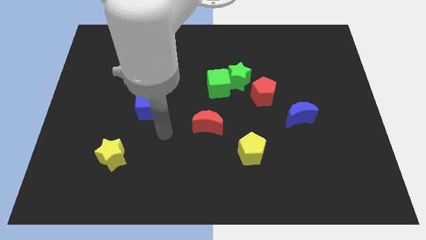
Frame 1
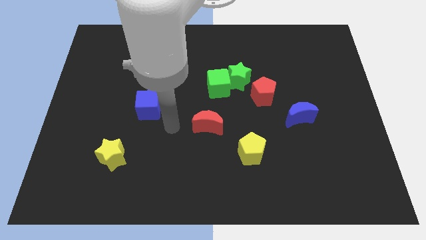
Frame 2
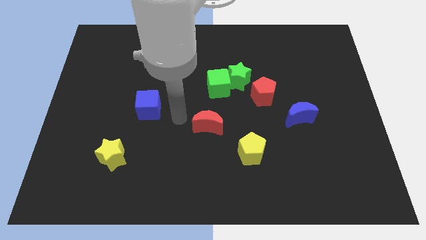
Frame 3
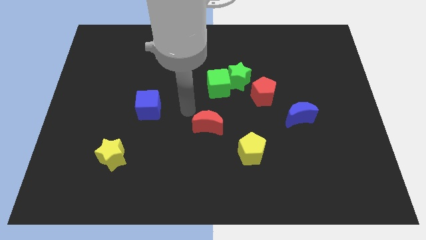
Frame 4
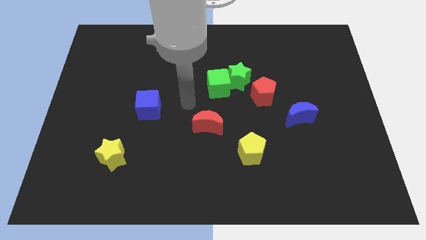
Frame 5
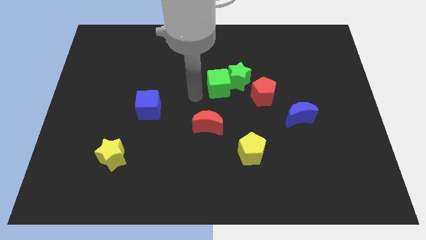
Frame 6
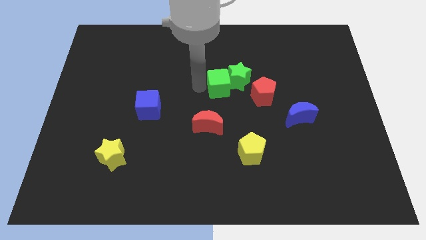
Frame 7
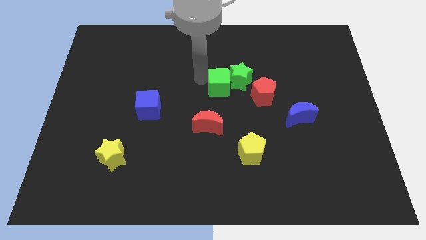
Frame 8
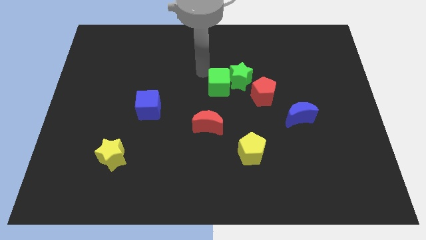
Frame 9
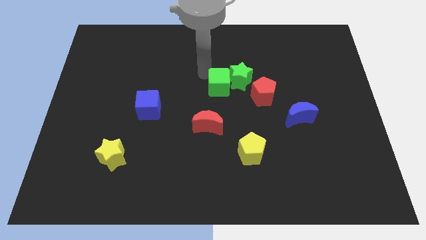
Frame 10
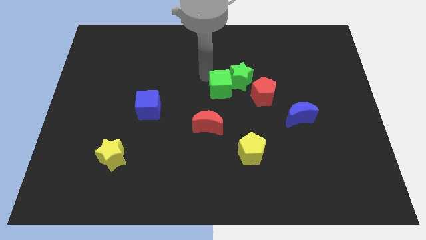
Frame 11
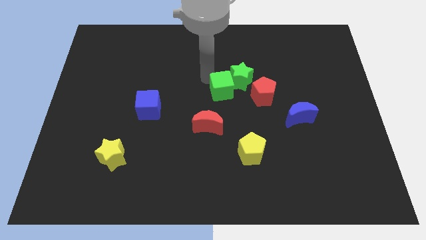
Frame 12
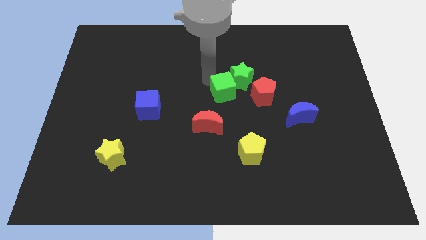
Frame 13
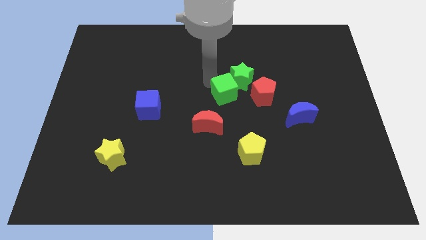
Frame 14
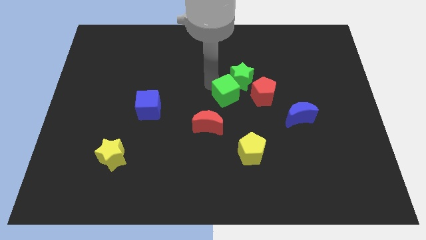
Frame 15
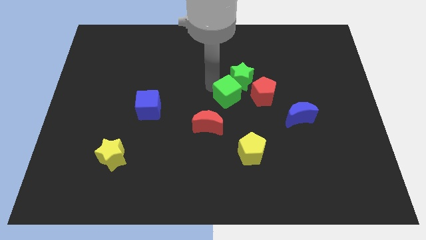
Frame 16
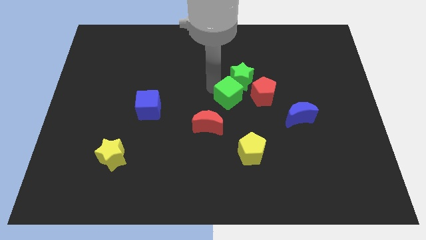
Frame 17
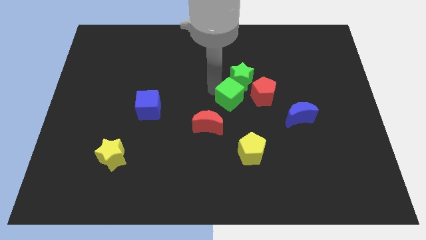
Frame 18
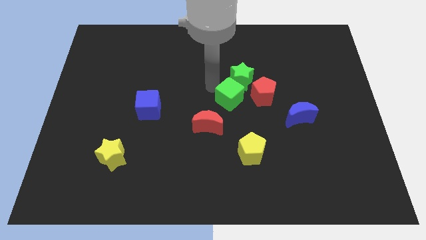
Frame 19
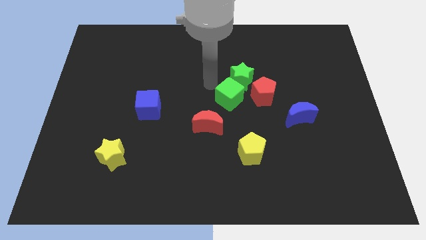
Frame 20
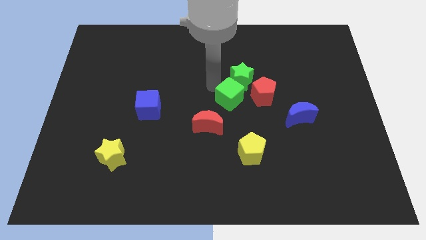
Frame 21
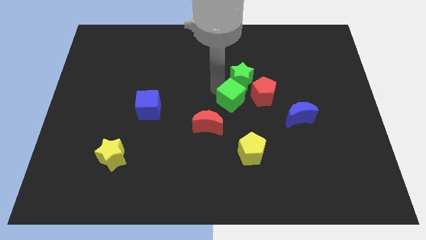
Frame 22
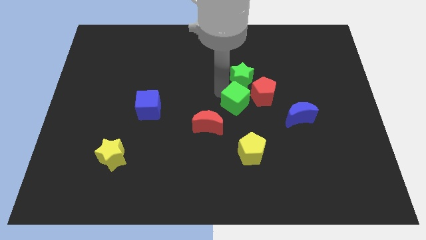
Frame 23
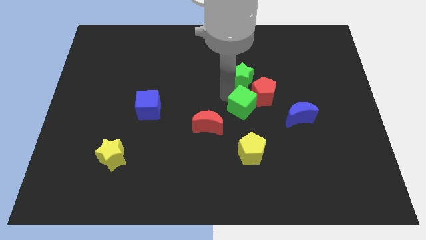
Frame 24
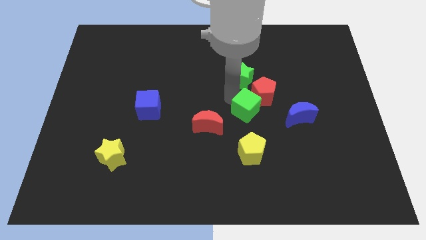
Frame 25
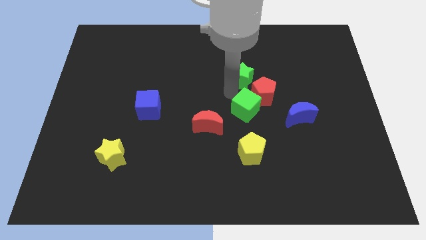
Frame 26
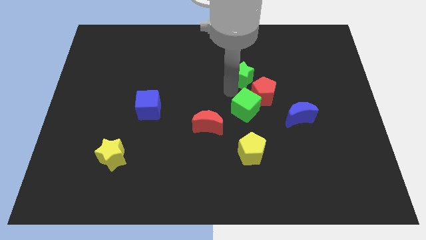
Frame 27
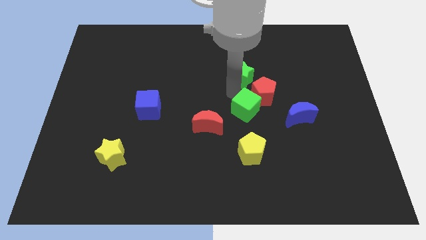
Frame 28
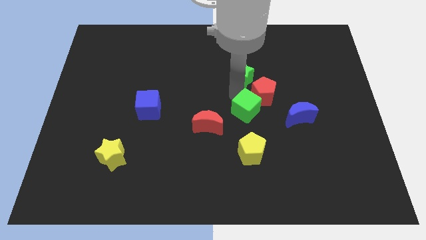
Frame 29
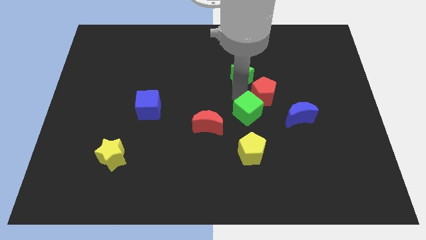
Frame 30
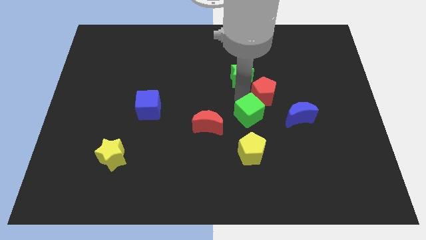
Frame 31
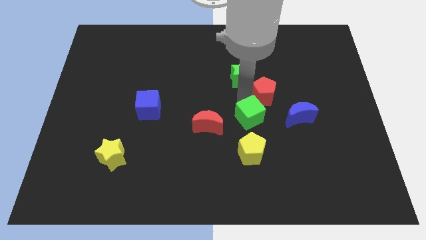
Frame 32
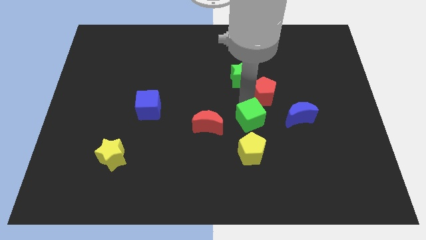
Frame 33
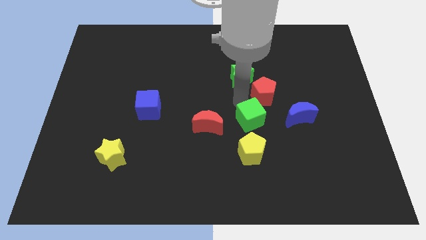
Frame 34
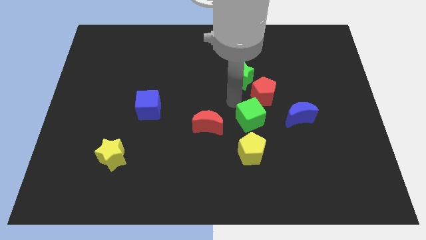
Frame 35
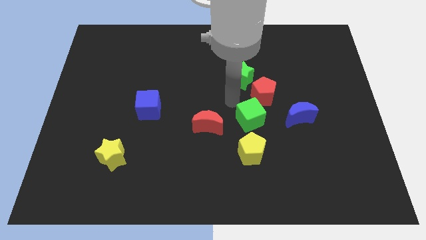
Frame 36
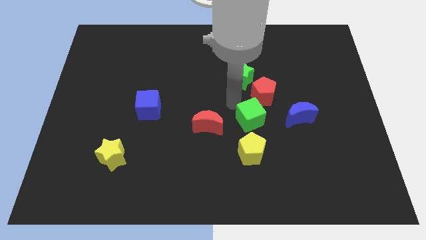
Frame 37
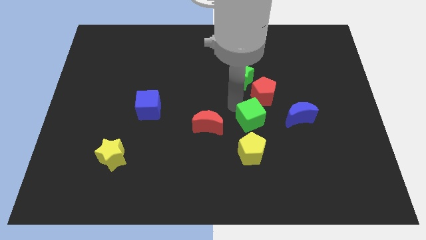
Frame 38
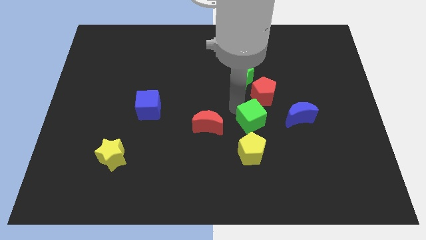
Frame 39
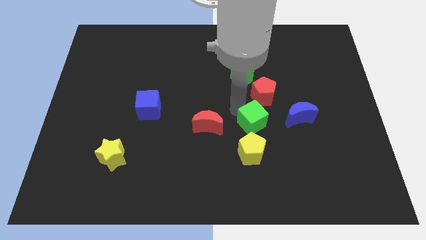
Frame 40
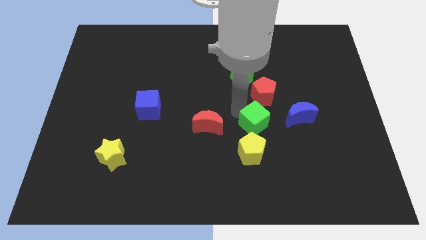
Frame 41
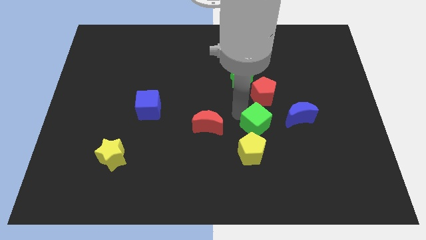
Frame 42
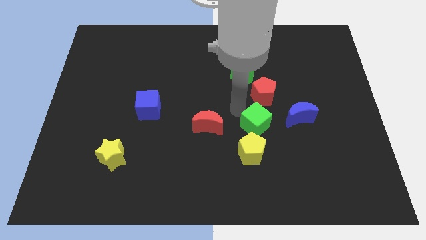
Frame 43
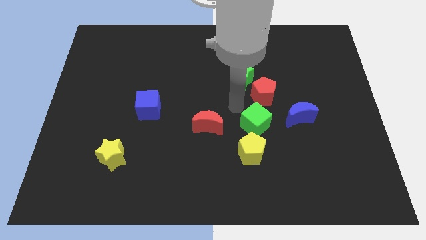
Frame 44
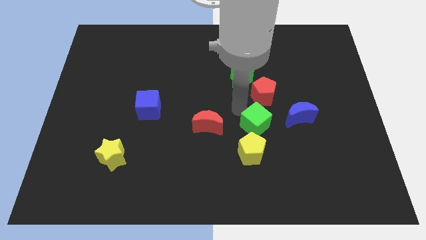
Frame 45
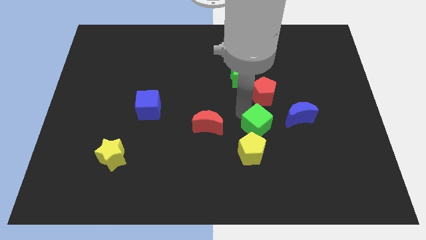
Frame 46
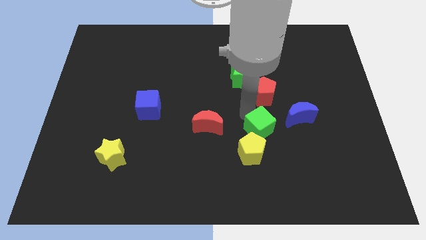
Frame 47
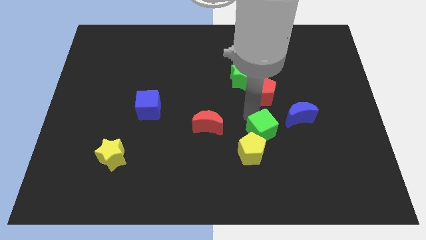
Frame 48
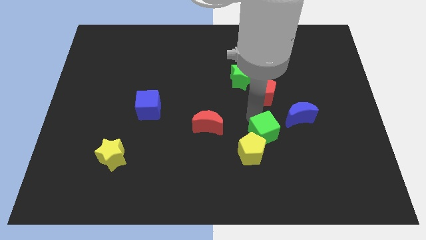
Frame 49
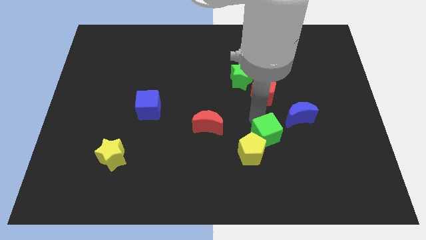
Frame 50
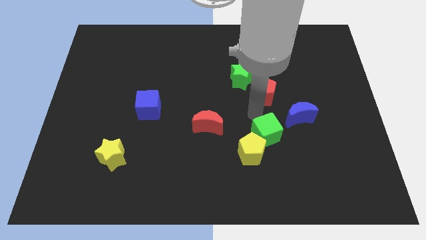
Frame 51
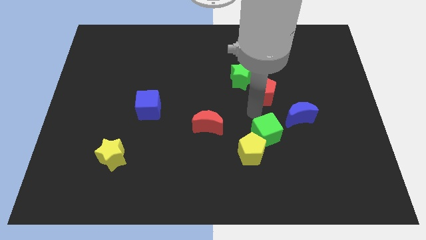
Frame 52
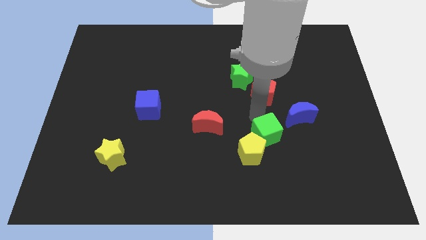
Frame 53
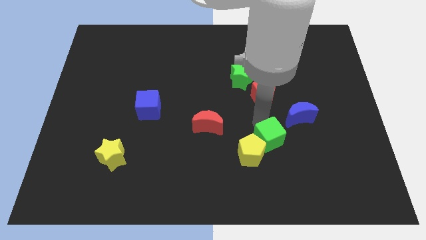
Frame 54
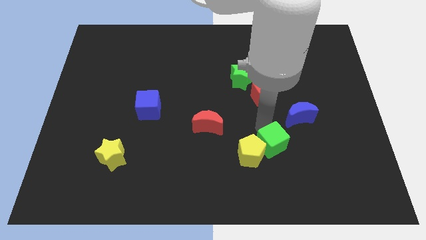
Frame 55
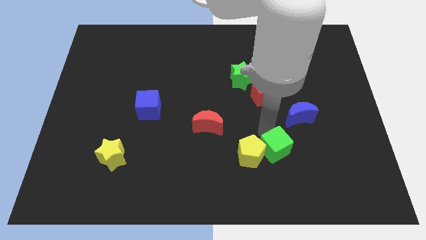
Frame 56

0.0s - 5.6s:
slide the green cube diagonally down and to the right of the yellow pentagon

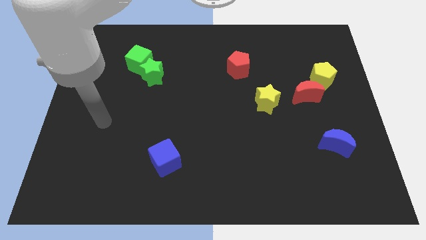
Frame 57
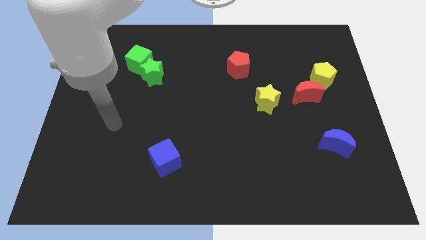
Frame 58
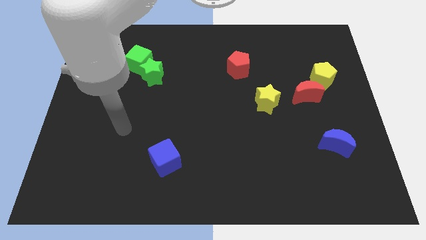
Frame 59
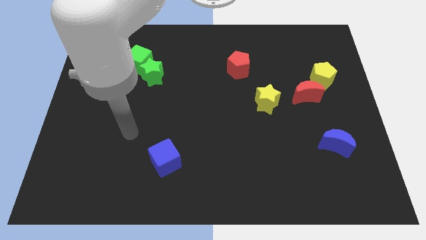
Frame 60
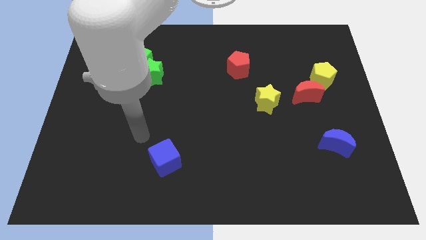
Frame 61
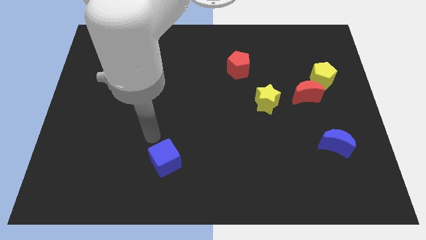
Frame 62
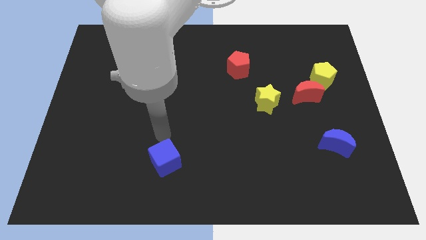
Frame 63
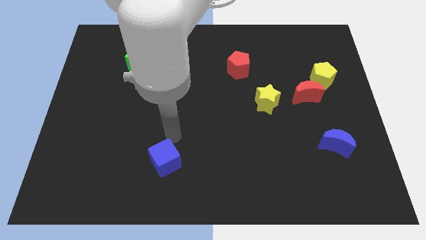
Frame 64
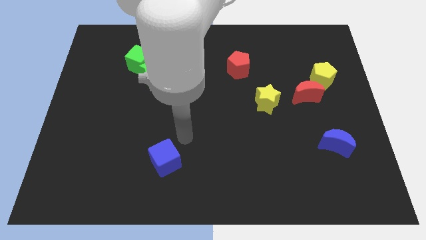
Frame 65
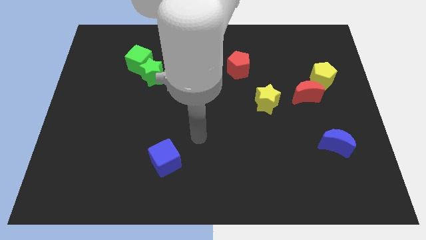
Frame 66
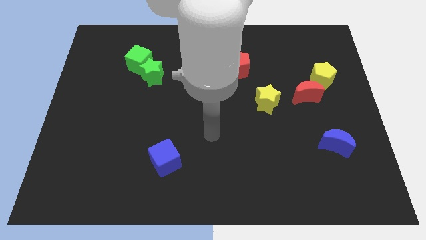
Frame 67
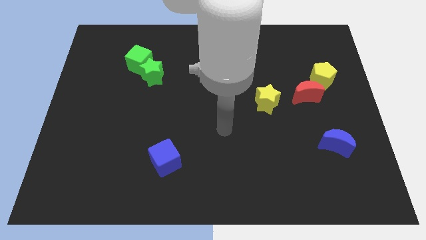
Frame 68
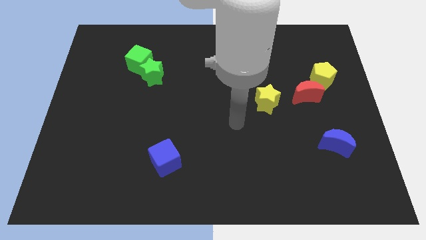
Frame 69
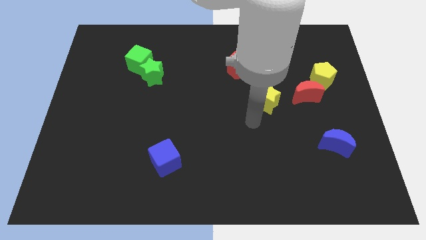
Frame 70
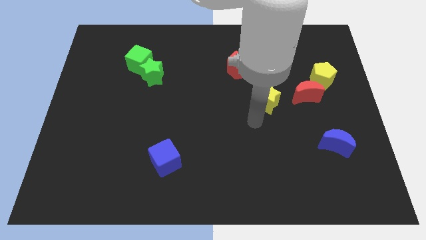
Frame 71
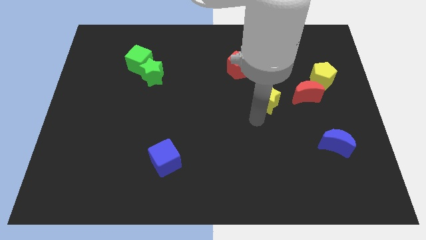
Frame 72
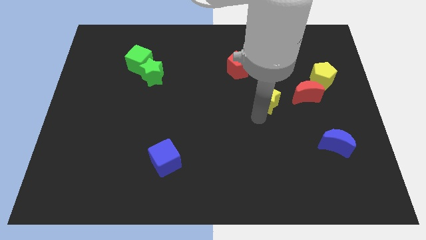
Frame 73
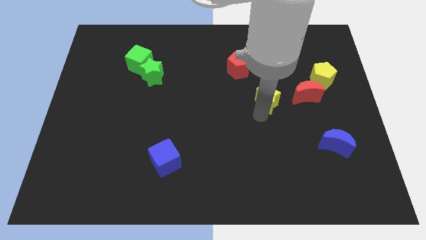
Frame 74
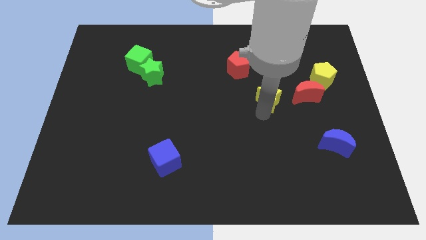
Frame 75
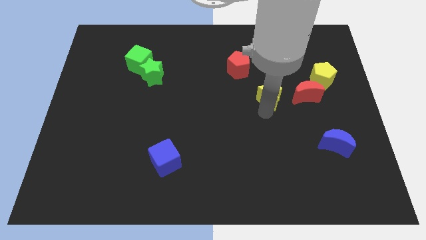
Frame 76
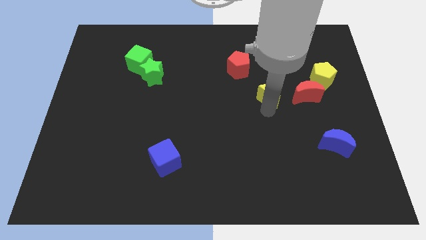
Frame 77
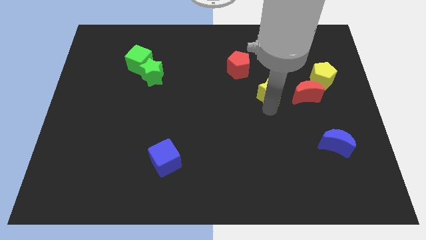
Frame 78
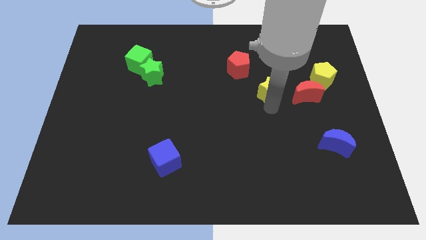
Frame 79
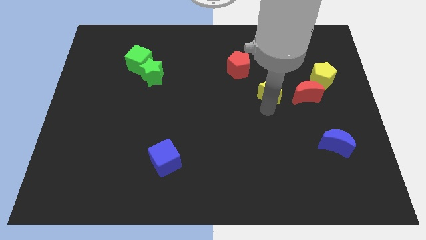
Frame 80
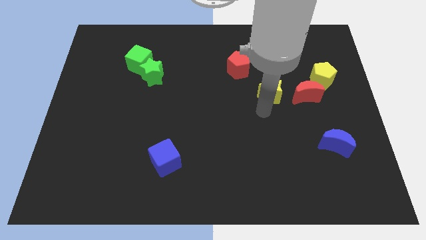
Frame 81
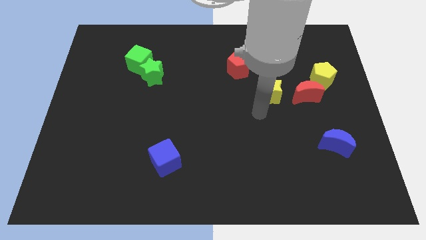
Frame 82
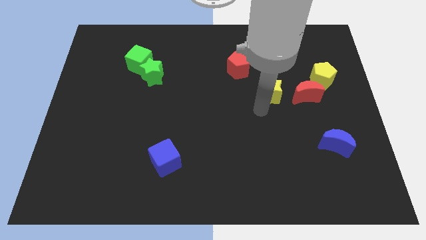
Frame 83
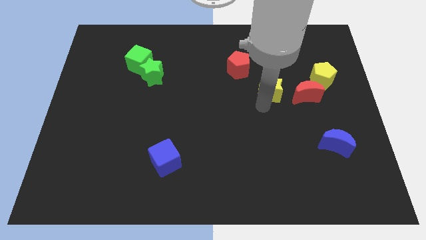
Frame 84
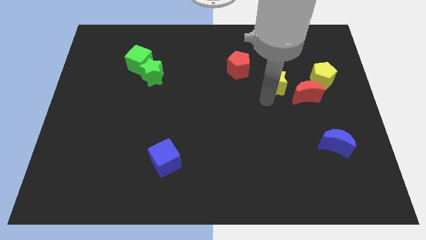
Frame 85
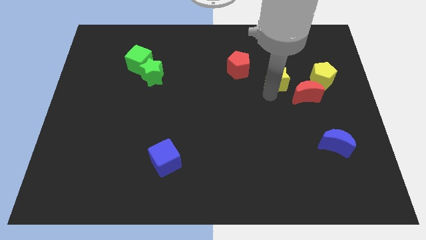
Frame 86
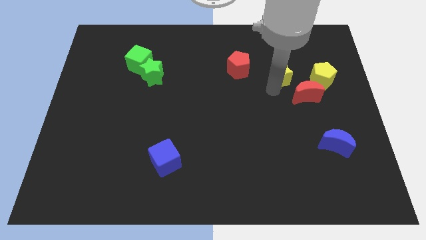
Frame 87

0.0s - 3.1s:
put the yellow star just right of the red pentagon
